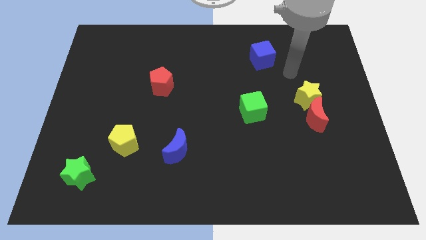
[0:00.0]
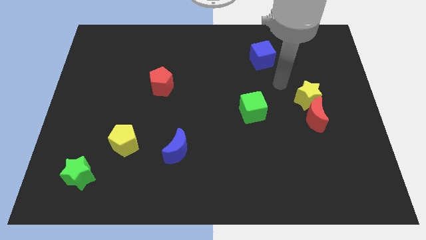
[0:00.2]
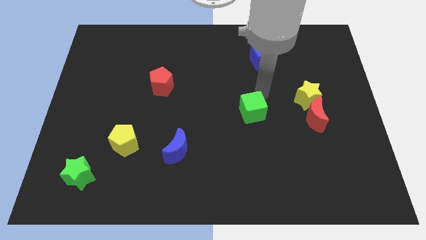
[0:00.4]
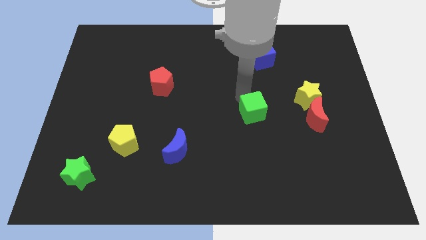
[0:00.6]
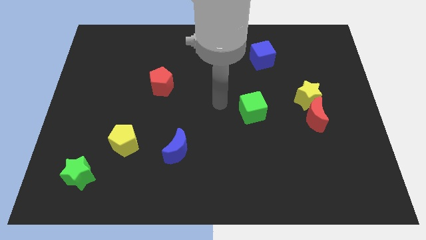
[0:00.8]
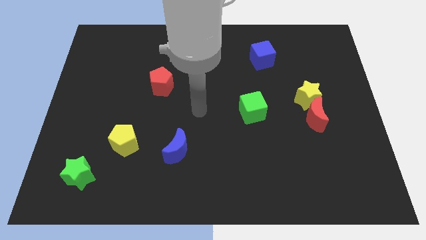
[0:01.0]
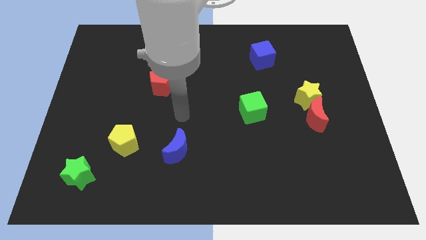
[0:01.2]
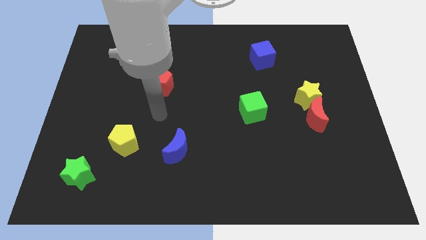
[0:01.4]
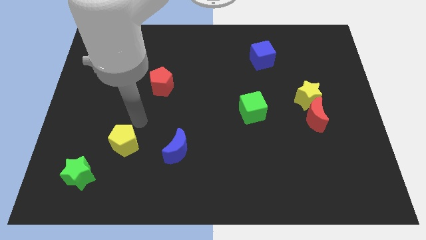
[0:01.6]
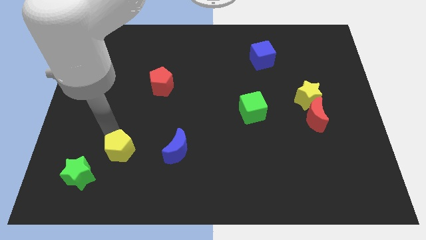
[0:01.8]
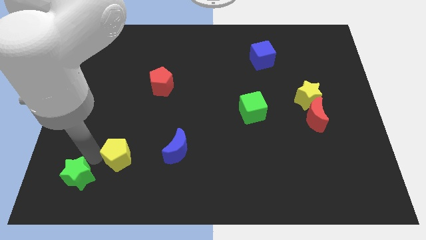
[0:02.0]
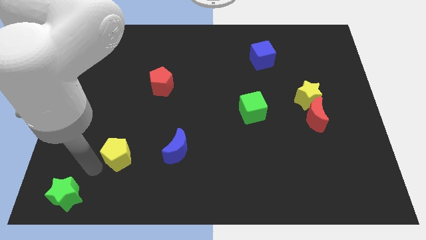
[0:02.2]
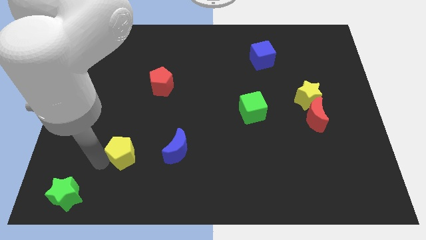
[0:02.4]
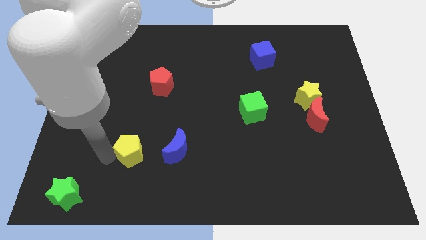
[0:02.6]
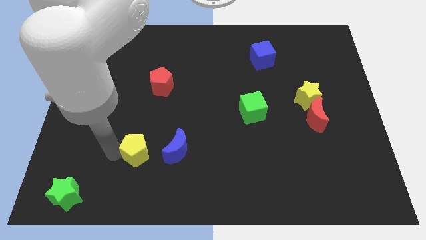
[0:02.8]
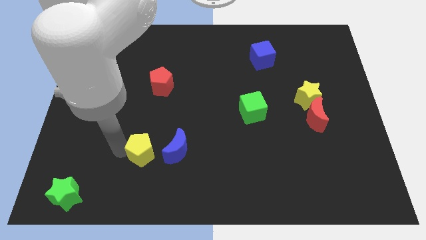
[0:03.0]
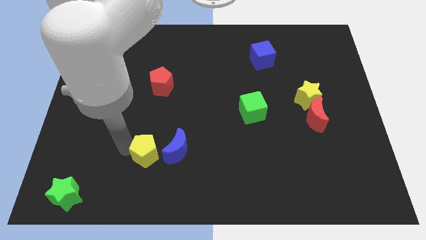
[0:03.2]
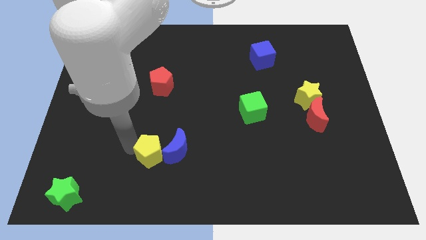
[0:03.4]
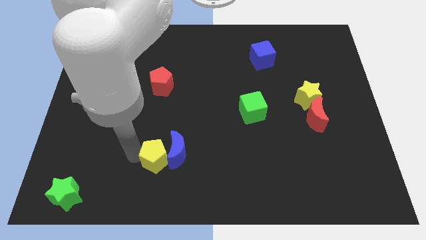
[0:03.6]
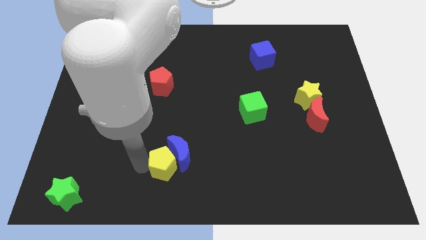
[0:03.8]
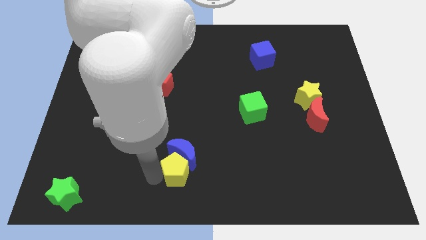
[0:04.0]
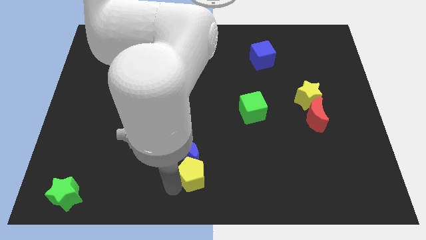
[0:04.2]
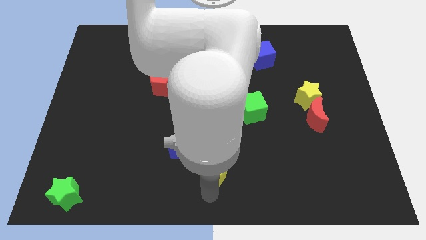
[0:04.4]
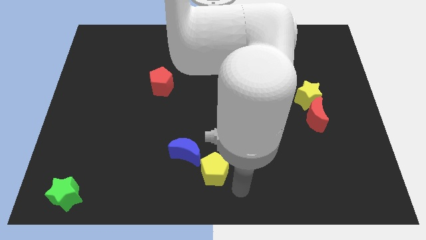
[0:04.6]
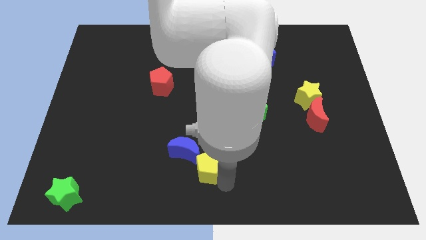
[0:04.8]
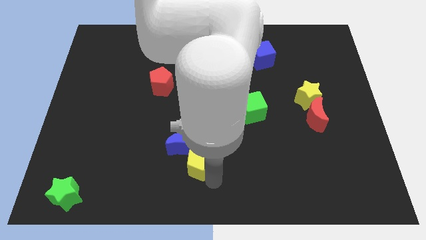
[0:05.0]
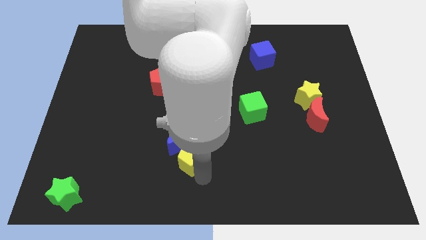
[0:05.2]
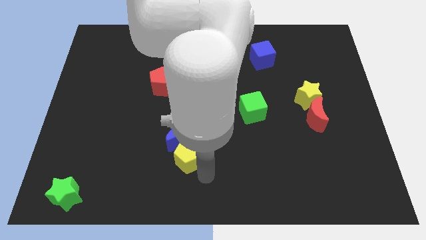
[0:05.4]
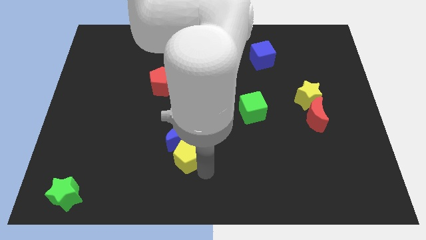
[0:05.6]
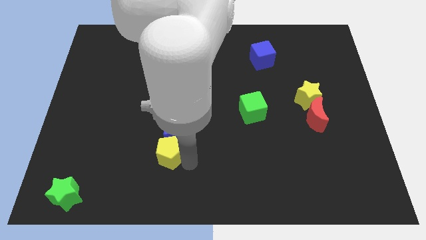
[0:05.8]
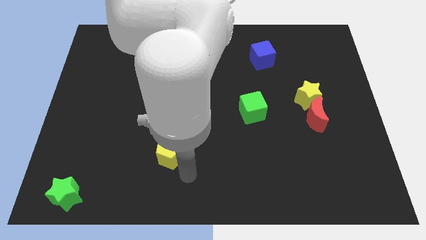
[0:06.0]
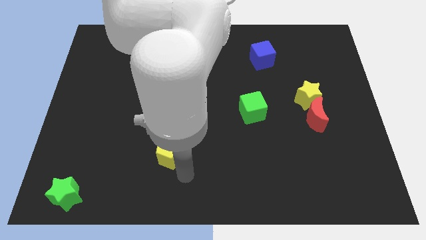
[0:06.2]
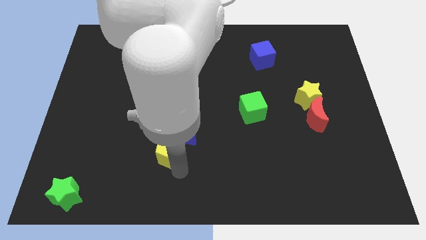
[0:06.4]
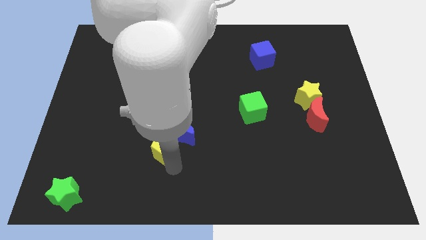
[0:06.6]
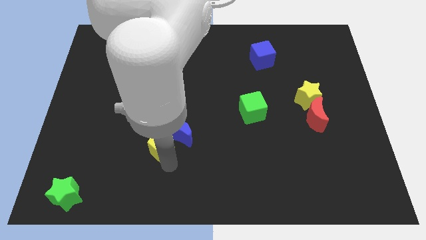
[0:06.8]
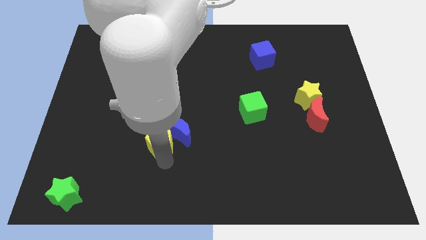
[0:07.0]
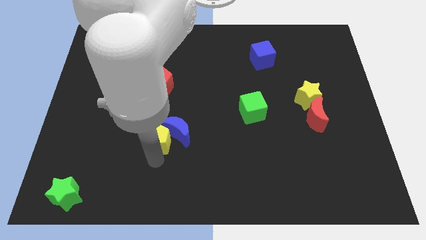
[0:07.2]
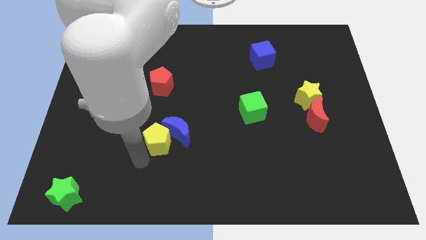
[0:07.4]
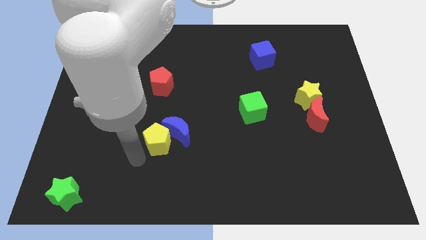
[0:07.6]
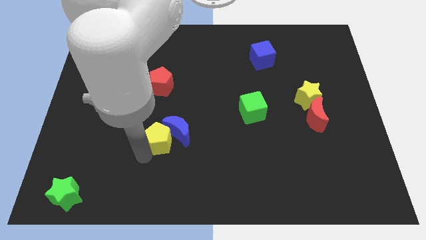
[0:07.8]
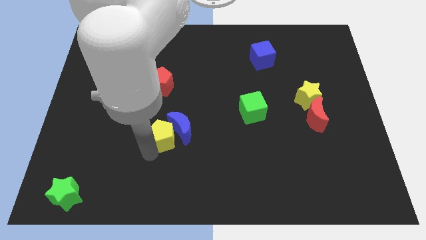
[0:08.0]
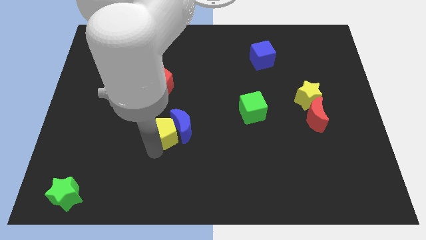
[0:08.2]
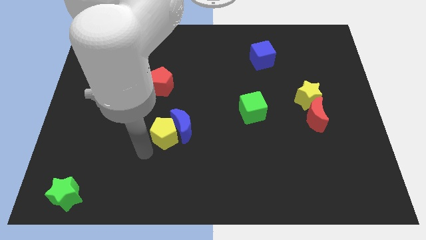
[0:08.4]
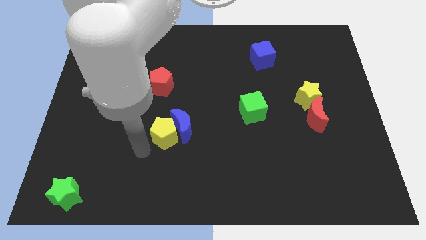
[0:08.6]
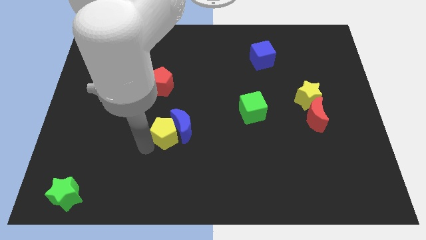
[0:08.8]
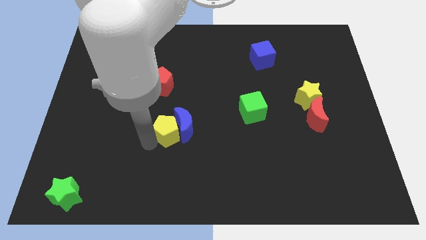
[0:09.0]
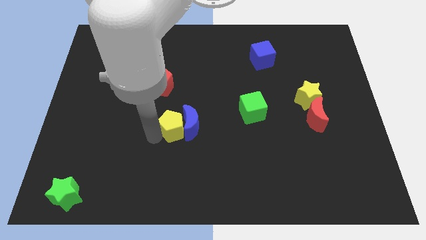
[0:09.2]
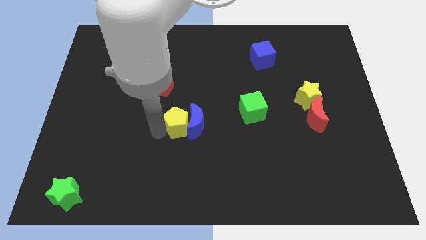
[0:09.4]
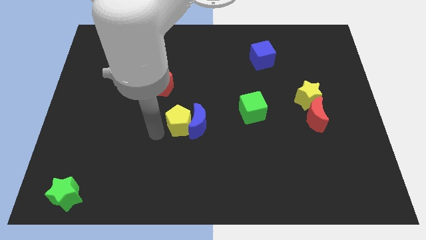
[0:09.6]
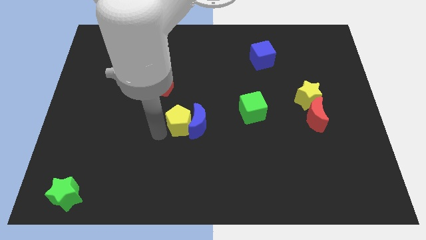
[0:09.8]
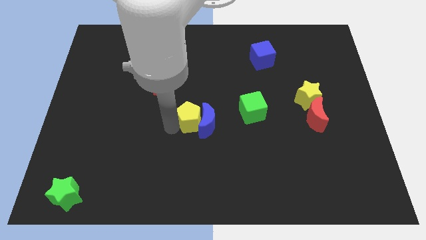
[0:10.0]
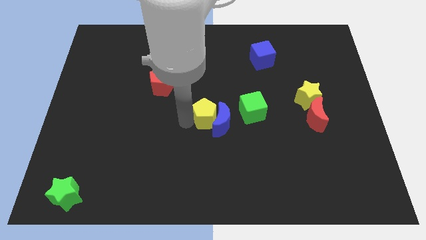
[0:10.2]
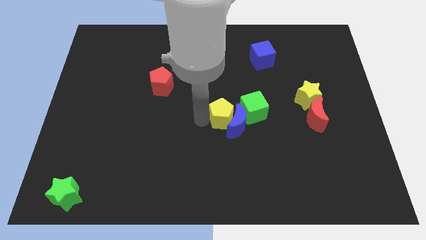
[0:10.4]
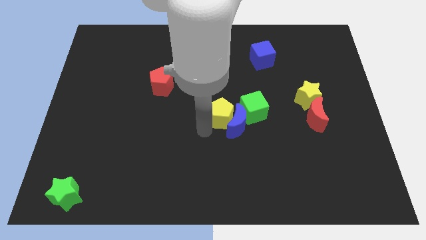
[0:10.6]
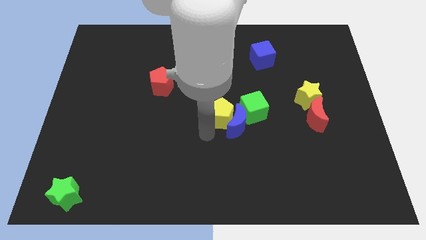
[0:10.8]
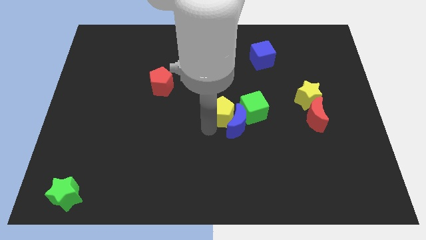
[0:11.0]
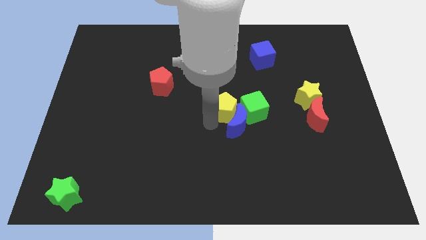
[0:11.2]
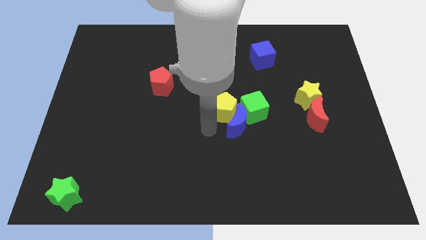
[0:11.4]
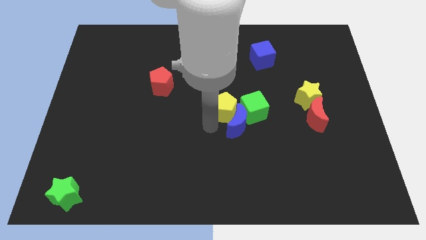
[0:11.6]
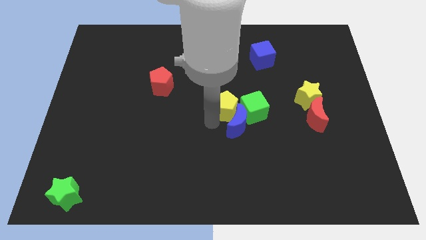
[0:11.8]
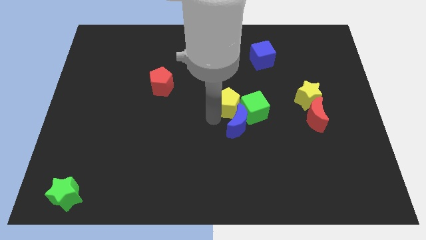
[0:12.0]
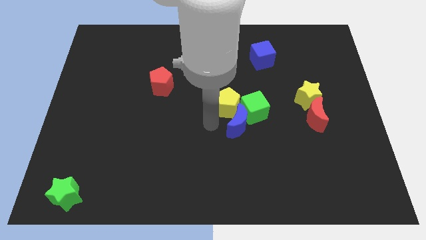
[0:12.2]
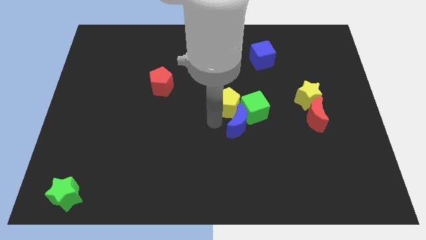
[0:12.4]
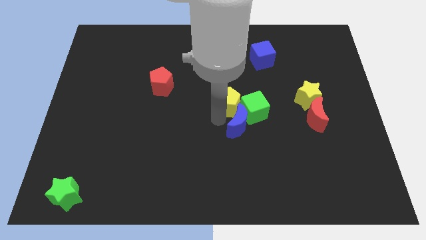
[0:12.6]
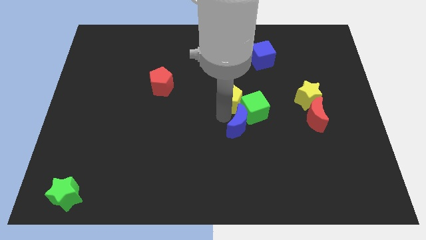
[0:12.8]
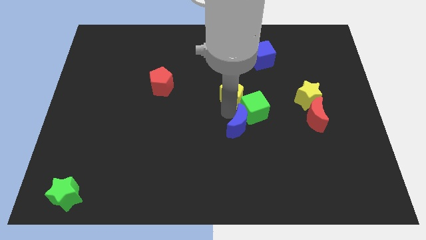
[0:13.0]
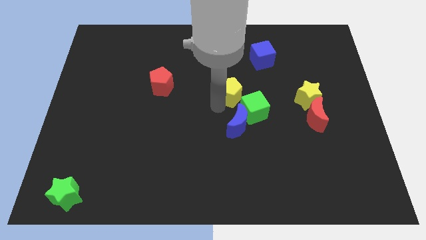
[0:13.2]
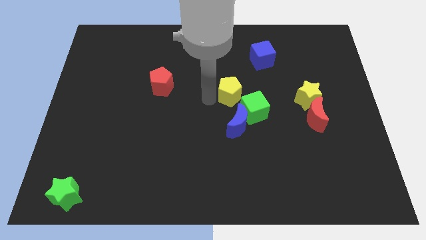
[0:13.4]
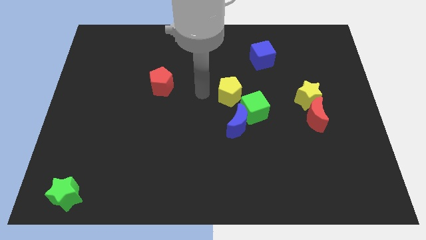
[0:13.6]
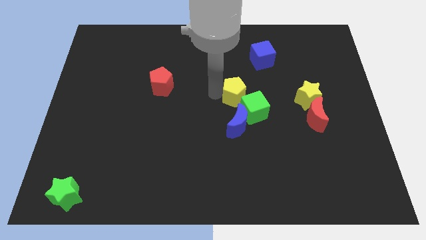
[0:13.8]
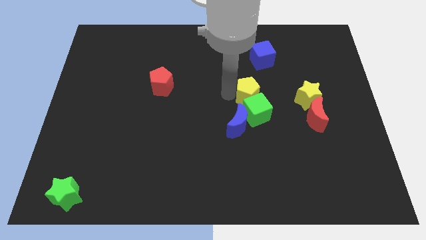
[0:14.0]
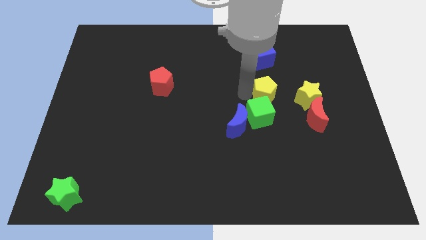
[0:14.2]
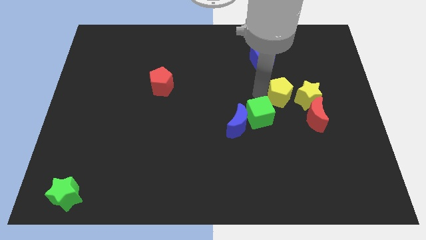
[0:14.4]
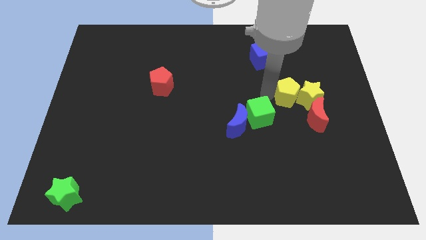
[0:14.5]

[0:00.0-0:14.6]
put the yellow pentagon to the yellow star
